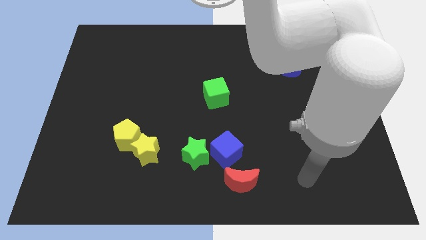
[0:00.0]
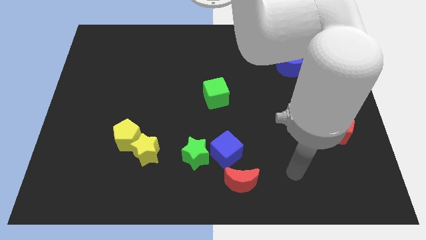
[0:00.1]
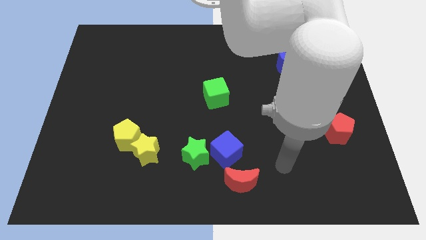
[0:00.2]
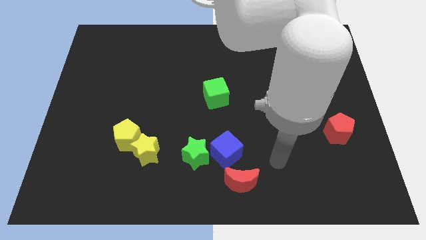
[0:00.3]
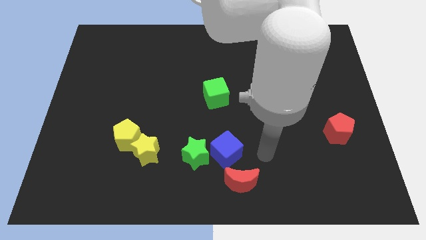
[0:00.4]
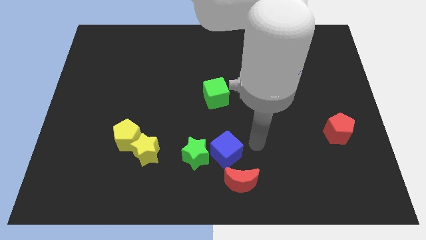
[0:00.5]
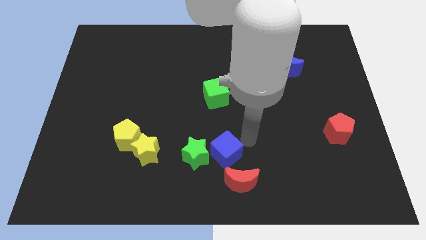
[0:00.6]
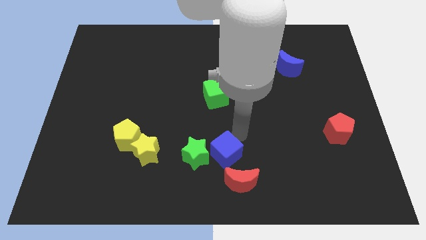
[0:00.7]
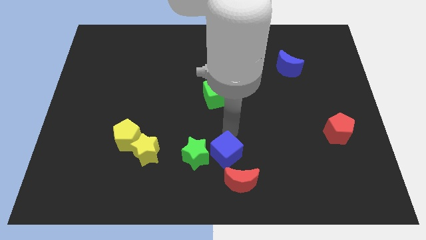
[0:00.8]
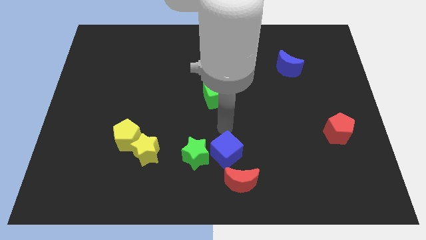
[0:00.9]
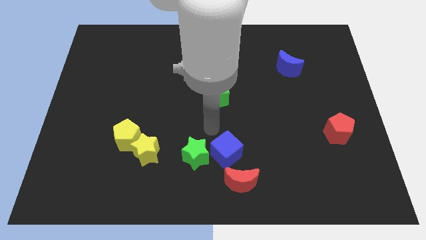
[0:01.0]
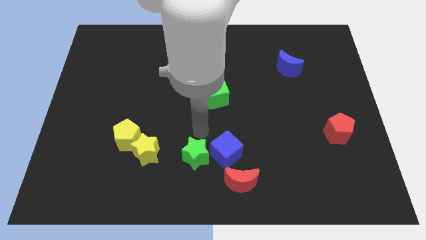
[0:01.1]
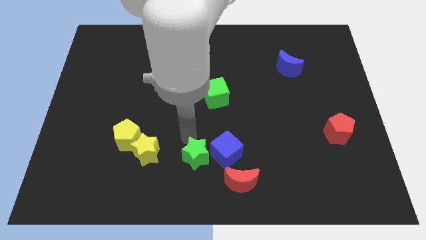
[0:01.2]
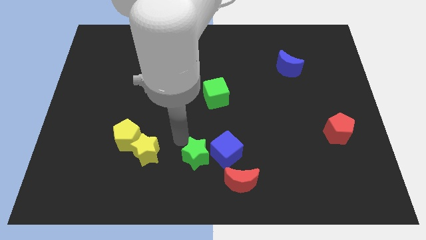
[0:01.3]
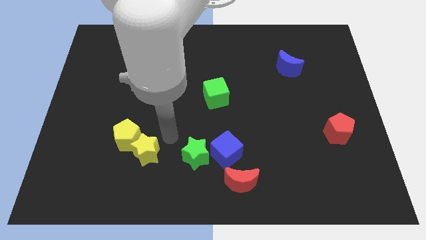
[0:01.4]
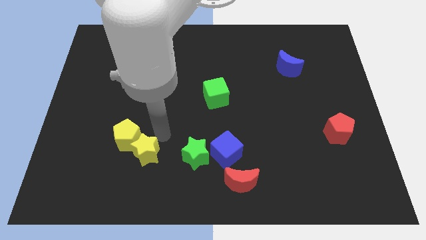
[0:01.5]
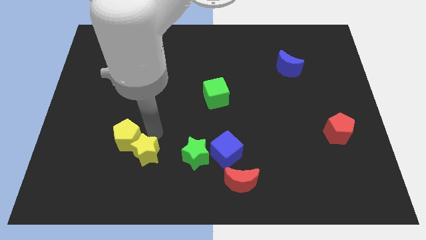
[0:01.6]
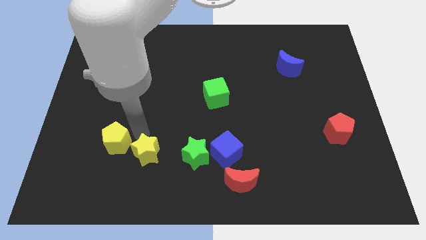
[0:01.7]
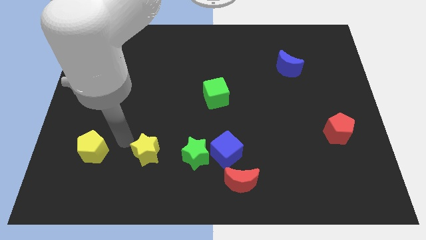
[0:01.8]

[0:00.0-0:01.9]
separate the yellow star from the yellow pentagon

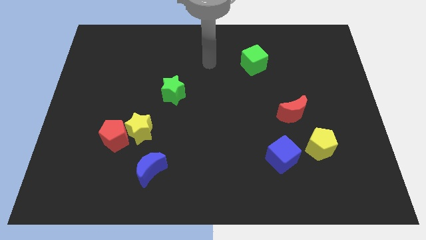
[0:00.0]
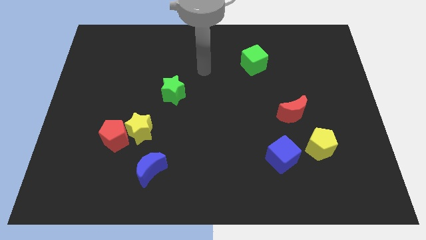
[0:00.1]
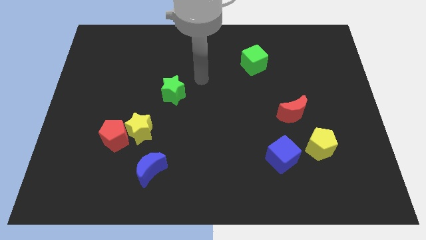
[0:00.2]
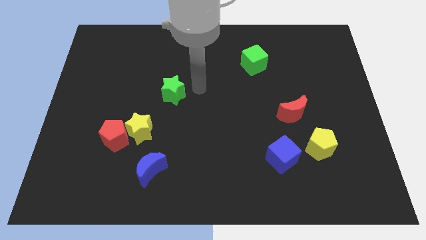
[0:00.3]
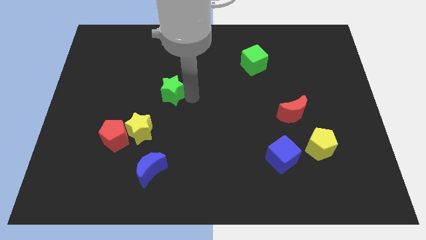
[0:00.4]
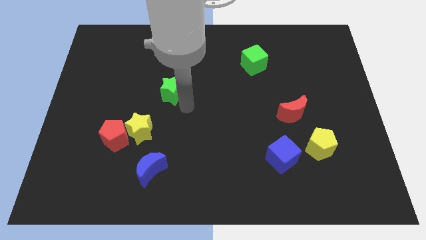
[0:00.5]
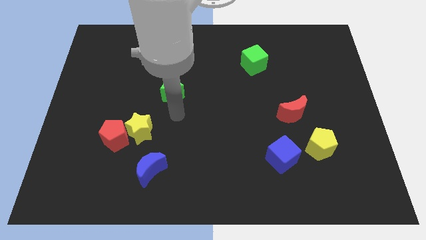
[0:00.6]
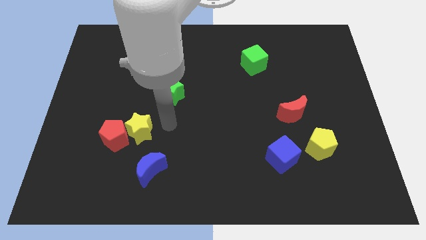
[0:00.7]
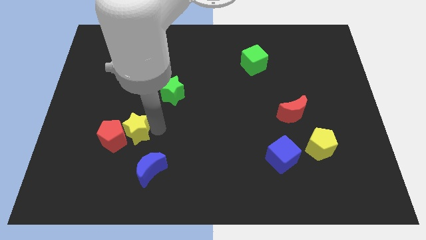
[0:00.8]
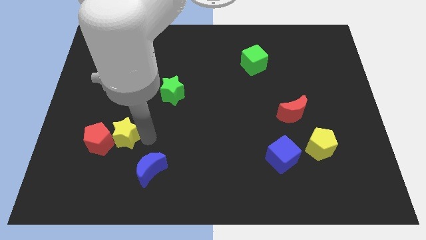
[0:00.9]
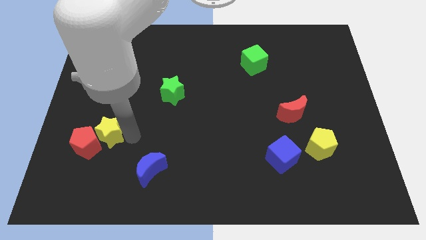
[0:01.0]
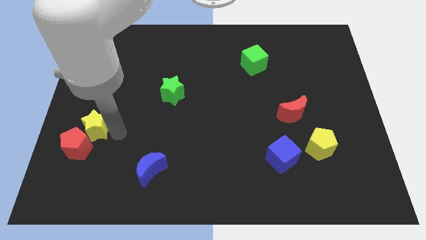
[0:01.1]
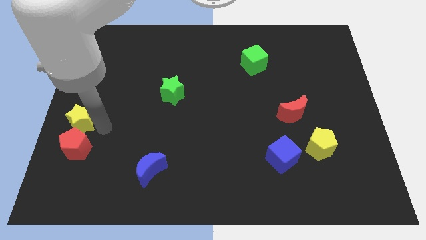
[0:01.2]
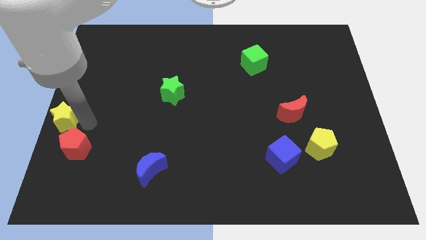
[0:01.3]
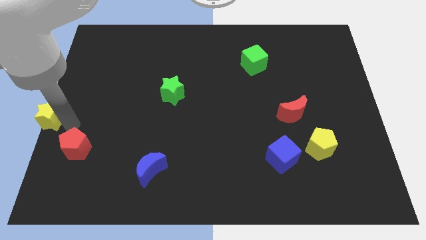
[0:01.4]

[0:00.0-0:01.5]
pull the red pentagon apart from the yellow star

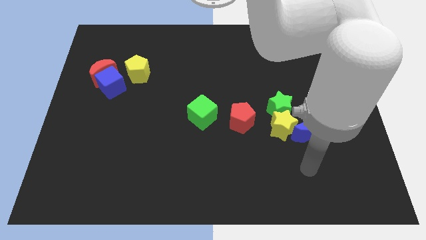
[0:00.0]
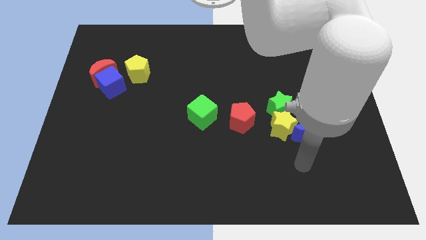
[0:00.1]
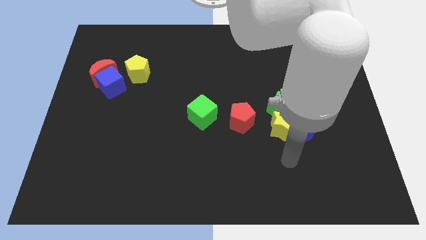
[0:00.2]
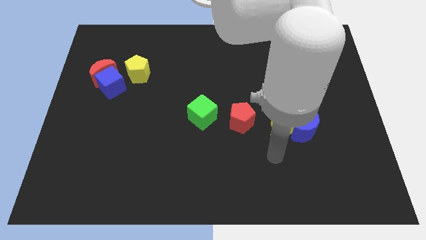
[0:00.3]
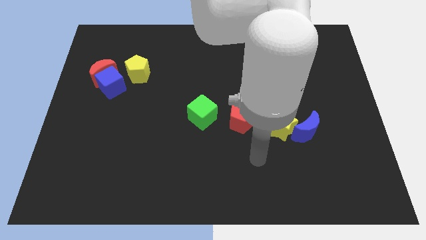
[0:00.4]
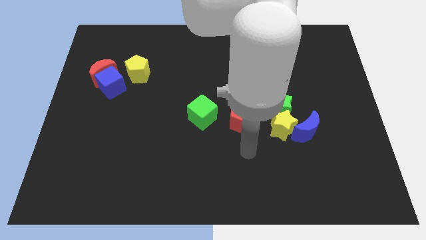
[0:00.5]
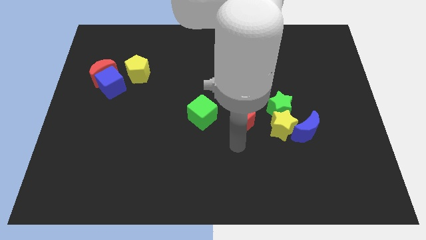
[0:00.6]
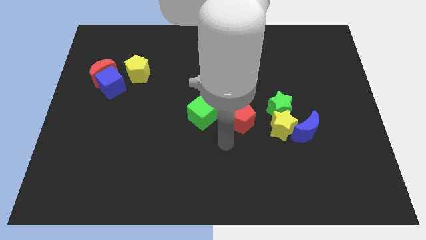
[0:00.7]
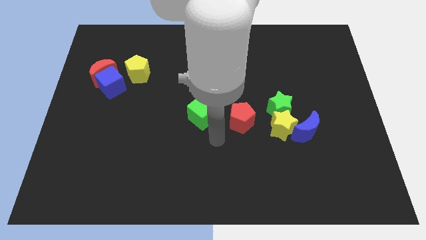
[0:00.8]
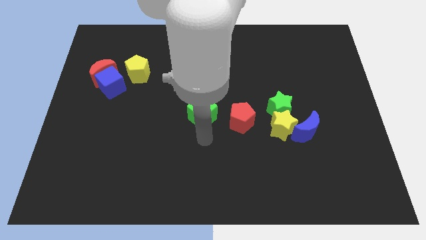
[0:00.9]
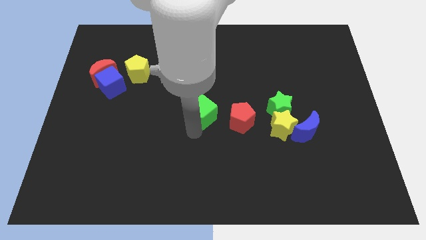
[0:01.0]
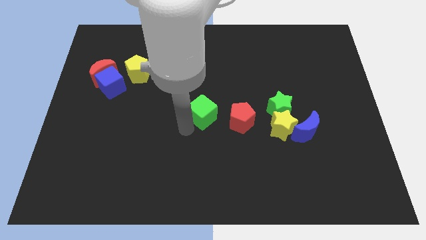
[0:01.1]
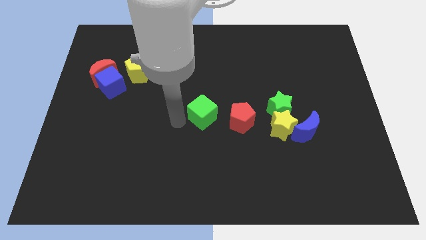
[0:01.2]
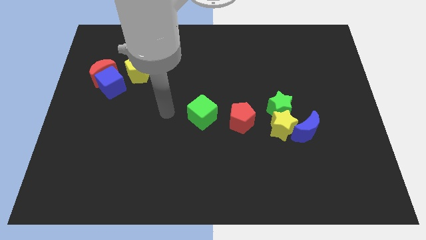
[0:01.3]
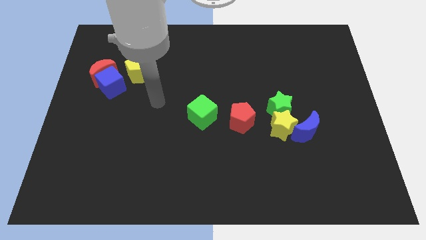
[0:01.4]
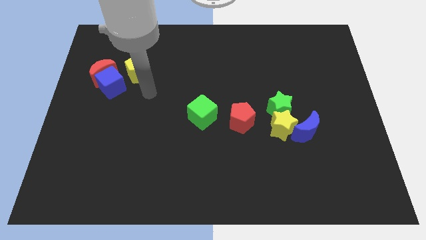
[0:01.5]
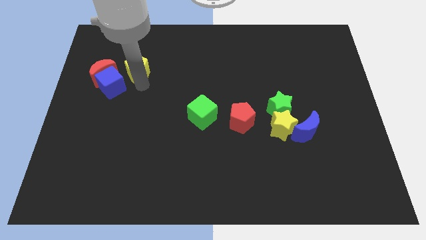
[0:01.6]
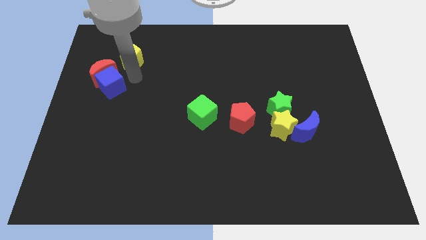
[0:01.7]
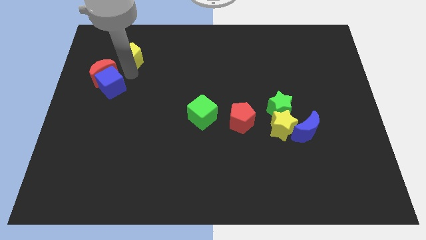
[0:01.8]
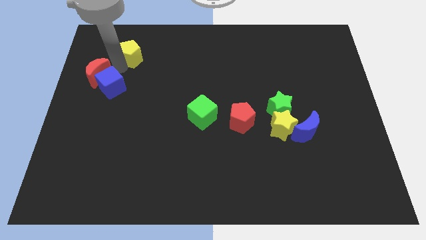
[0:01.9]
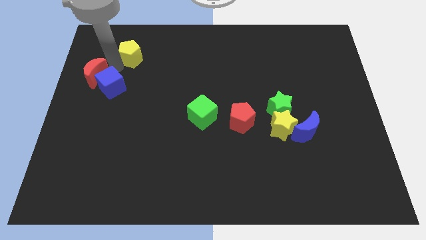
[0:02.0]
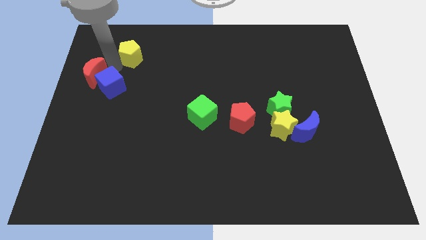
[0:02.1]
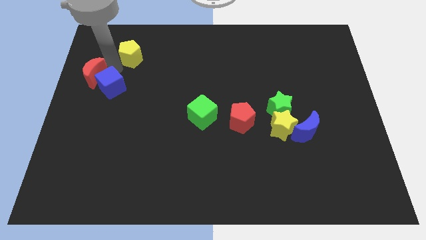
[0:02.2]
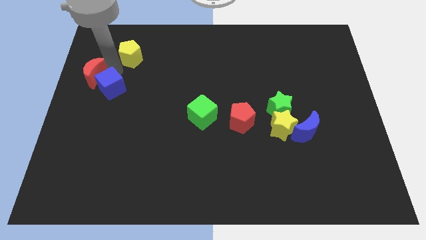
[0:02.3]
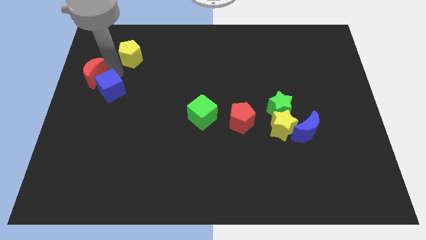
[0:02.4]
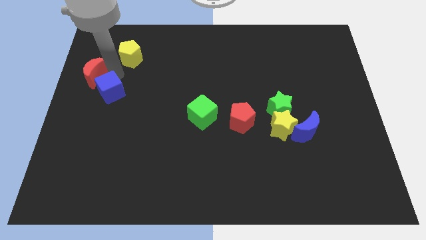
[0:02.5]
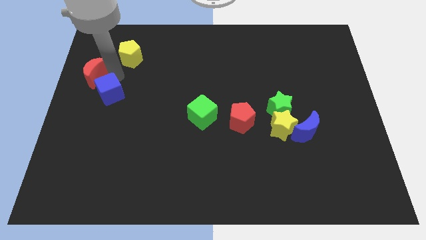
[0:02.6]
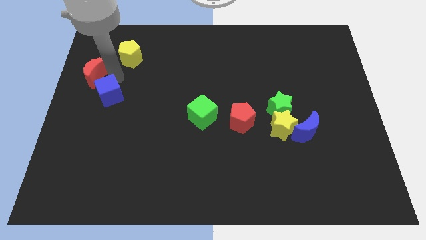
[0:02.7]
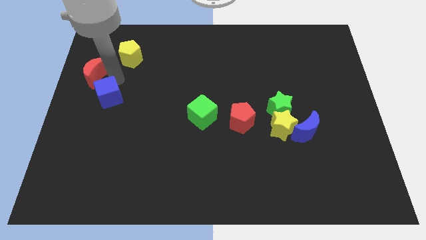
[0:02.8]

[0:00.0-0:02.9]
separate the blue cube from the red moon and yellow pentagon

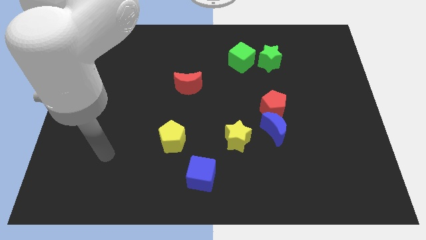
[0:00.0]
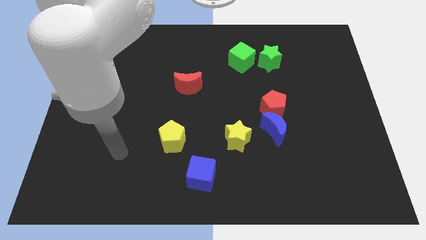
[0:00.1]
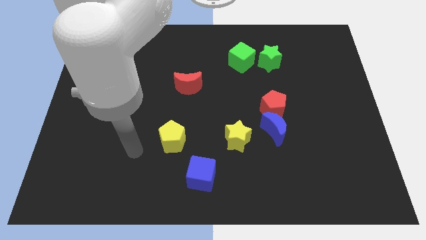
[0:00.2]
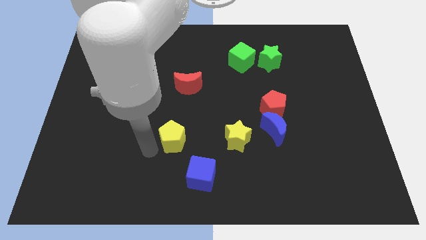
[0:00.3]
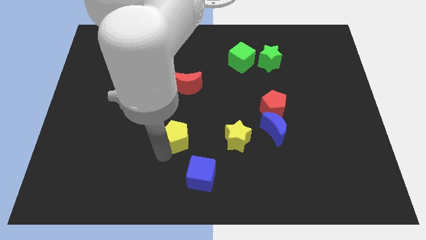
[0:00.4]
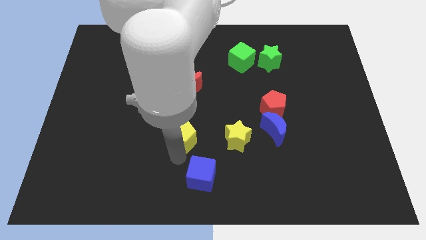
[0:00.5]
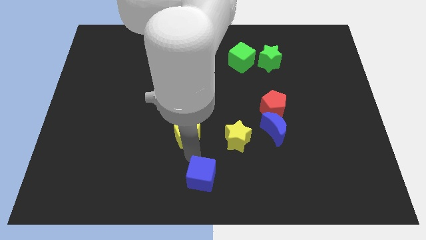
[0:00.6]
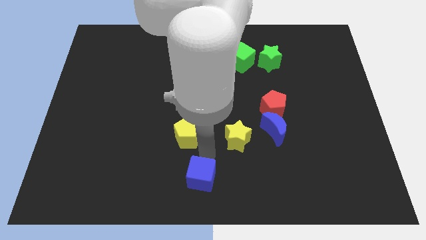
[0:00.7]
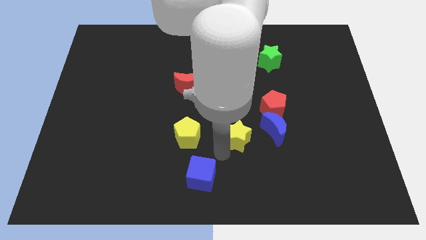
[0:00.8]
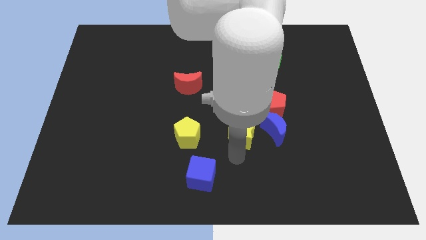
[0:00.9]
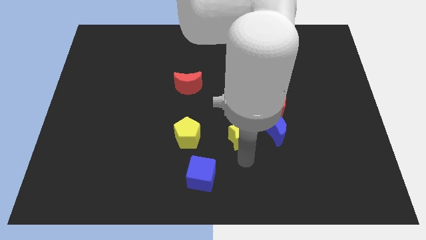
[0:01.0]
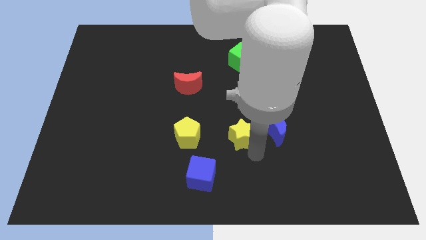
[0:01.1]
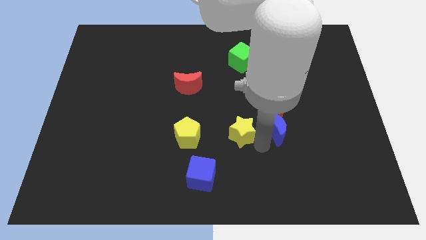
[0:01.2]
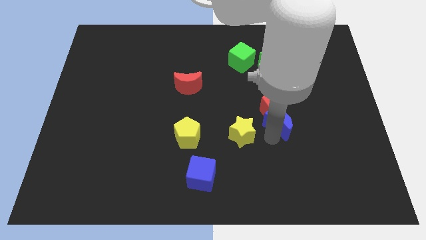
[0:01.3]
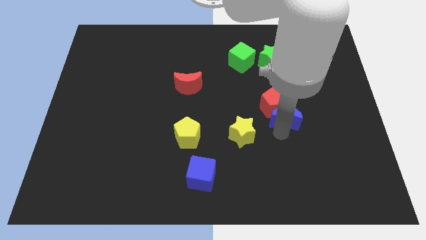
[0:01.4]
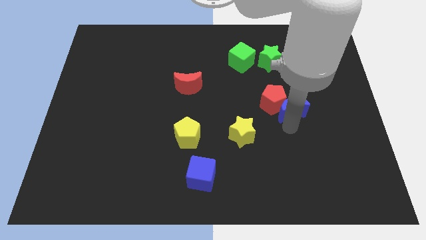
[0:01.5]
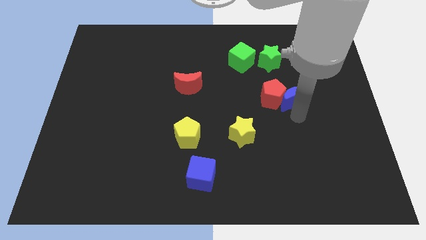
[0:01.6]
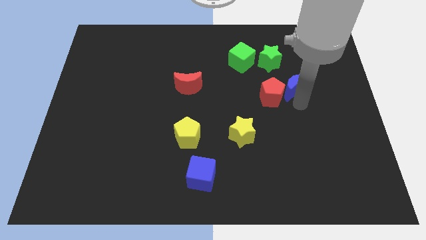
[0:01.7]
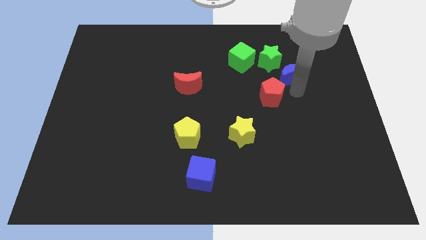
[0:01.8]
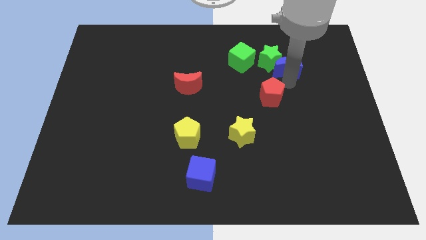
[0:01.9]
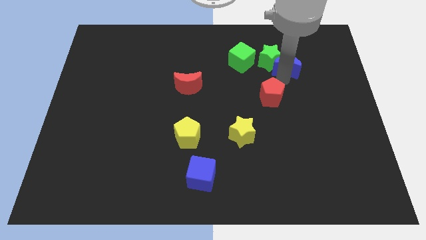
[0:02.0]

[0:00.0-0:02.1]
pull the red pentagon apart from the blue moon

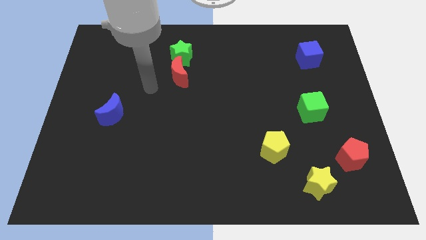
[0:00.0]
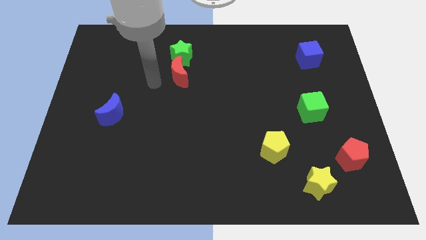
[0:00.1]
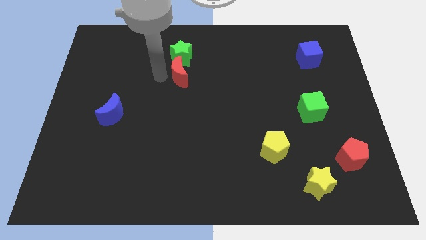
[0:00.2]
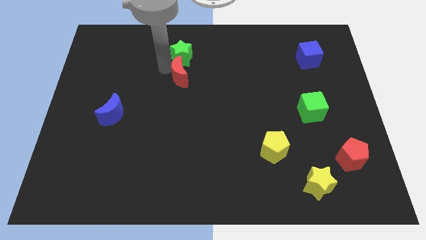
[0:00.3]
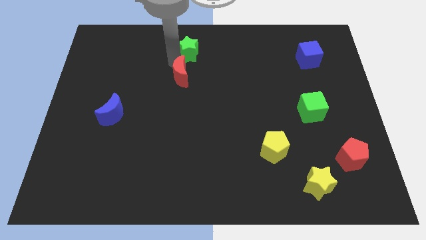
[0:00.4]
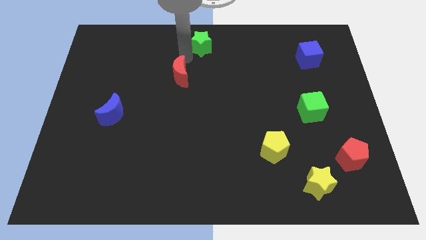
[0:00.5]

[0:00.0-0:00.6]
separate the red moon from the green star

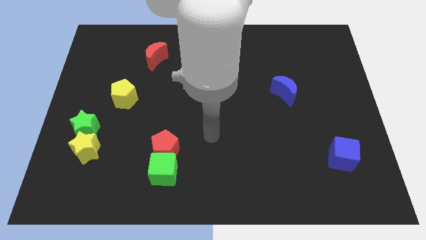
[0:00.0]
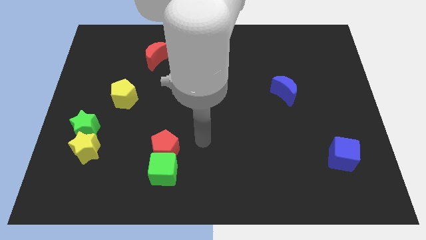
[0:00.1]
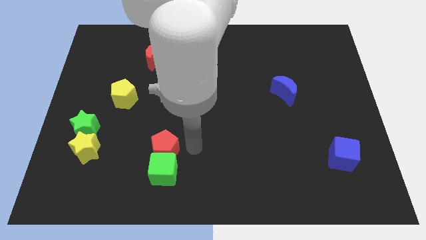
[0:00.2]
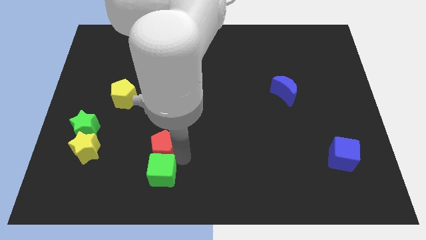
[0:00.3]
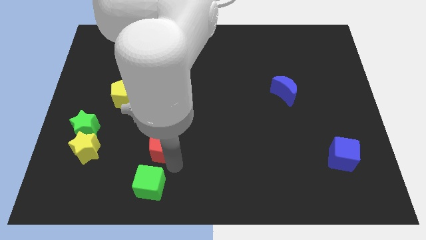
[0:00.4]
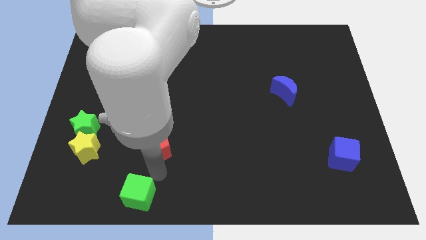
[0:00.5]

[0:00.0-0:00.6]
pull the red pentagon apart from the green cube
